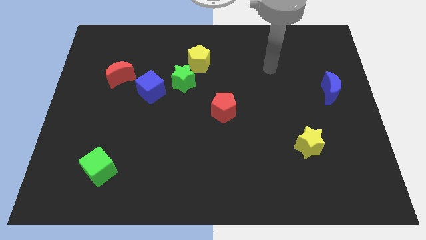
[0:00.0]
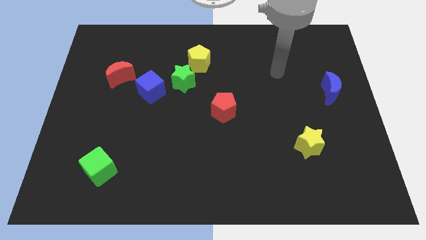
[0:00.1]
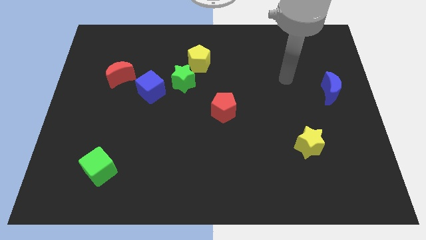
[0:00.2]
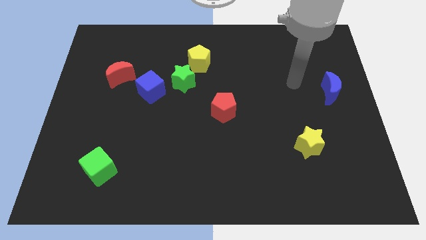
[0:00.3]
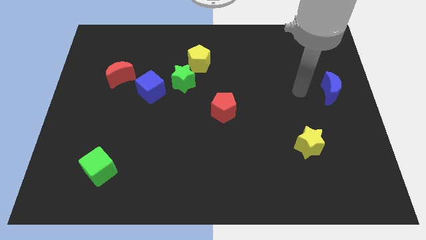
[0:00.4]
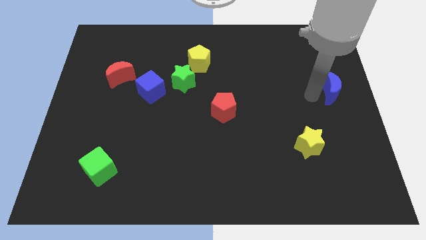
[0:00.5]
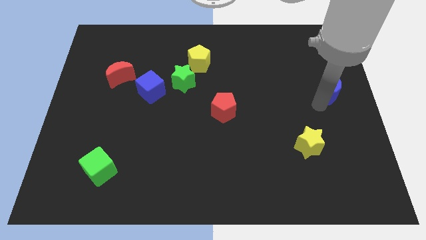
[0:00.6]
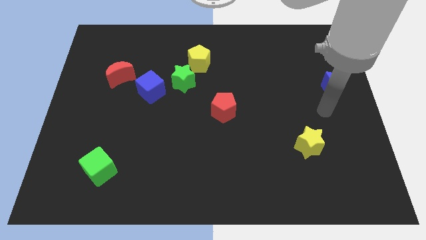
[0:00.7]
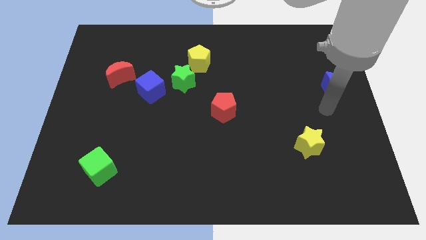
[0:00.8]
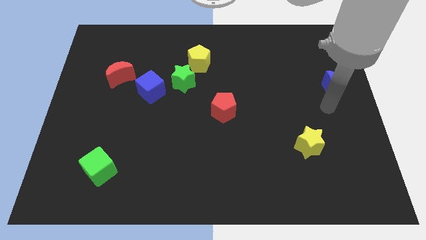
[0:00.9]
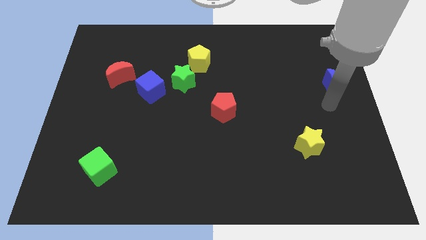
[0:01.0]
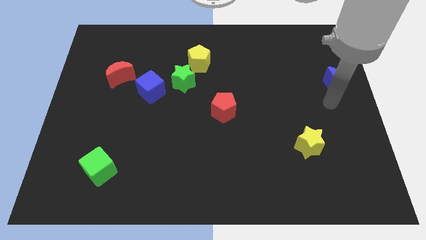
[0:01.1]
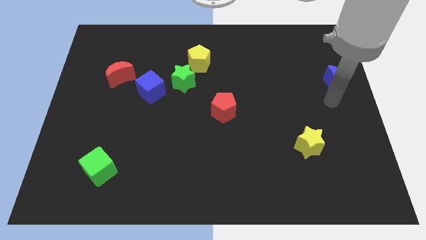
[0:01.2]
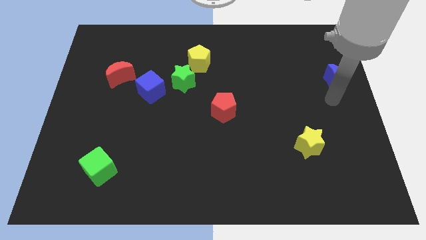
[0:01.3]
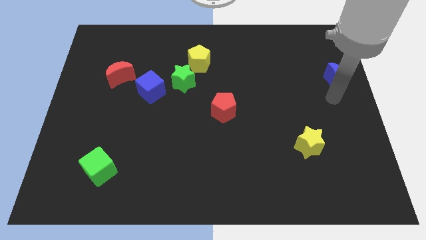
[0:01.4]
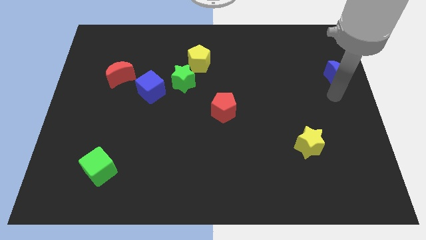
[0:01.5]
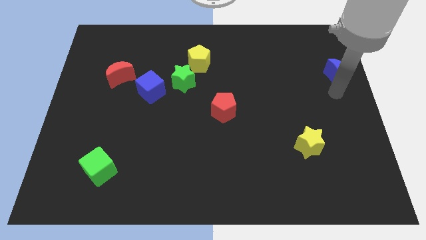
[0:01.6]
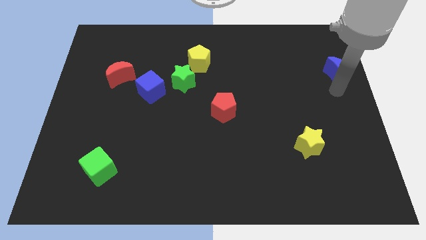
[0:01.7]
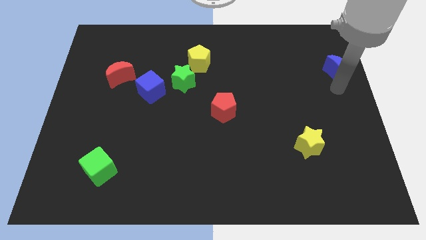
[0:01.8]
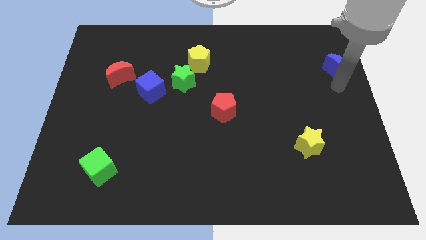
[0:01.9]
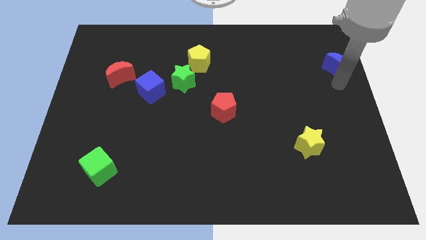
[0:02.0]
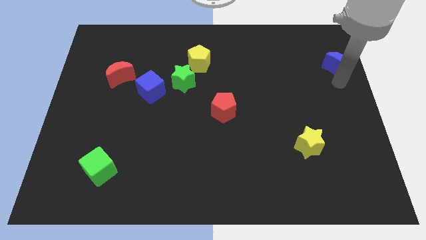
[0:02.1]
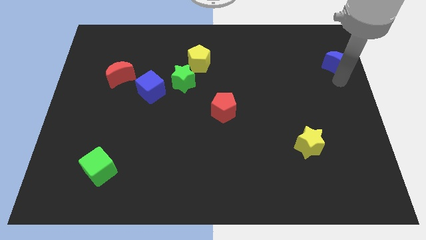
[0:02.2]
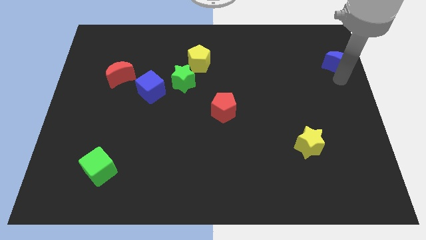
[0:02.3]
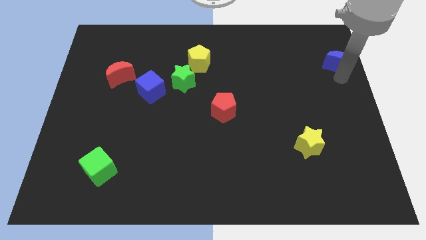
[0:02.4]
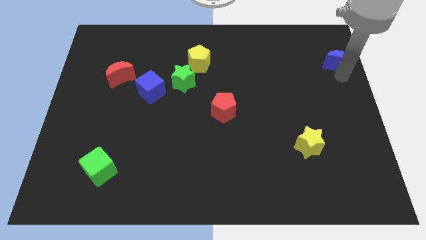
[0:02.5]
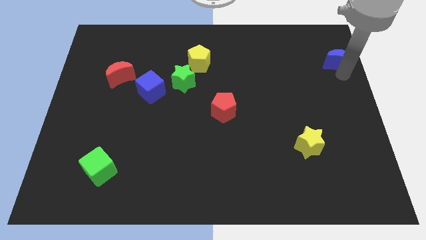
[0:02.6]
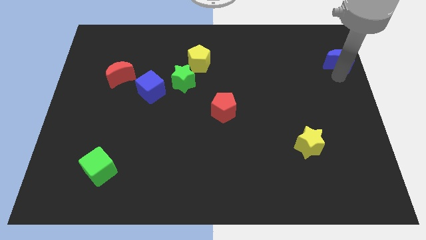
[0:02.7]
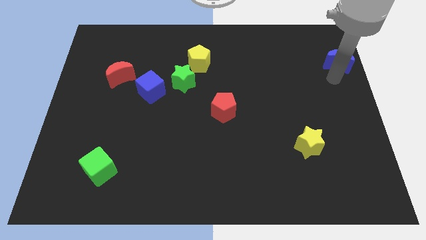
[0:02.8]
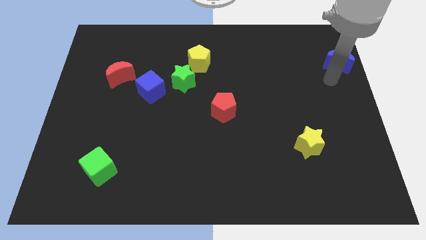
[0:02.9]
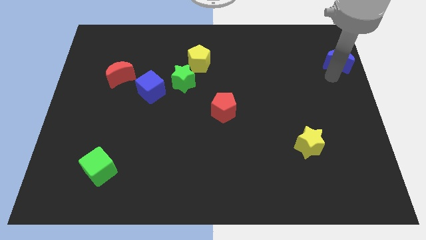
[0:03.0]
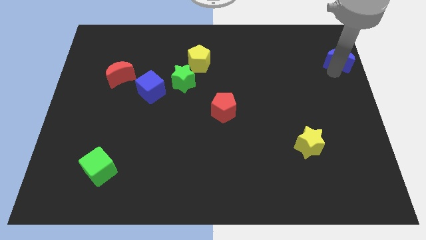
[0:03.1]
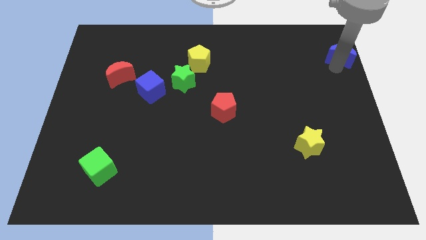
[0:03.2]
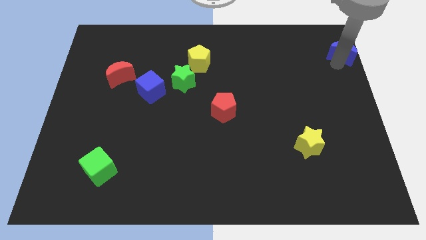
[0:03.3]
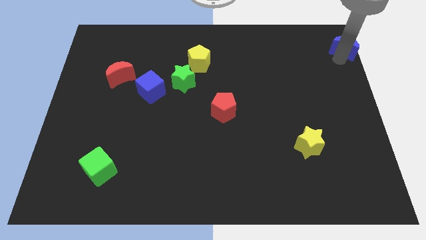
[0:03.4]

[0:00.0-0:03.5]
move the blue moon to the top right

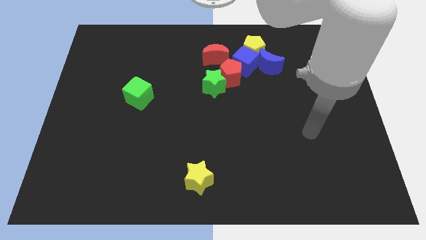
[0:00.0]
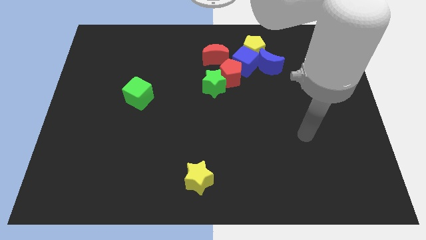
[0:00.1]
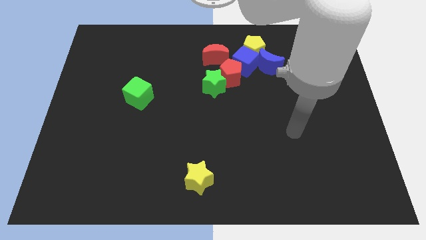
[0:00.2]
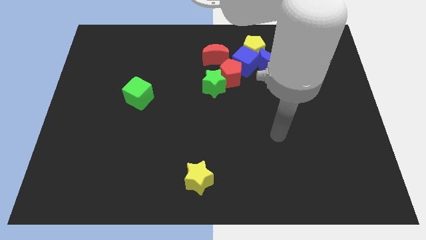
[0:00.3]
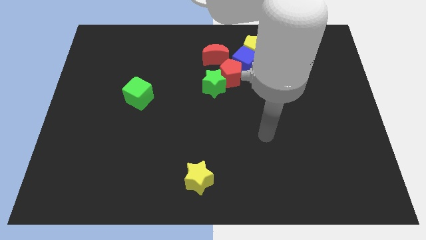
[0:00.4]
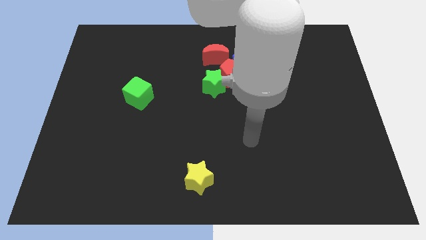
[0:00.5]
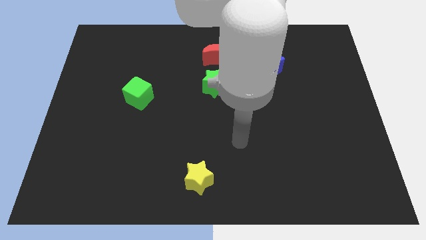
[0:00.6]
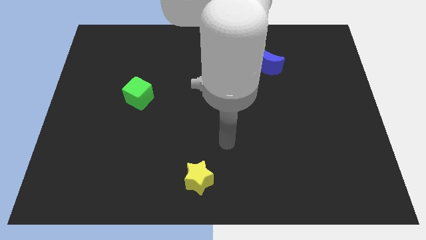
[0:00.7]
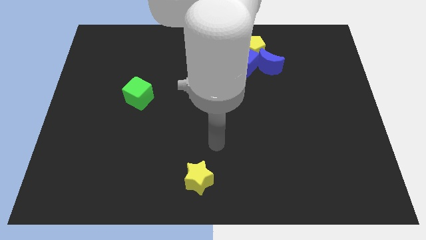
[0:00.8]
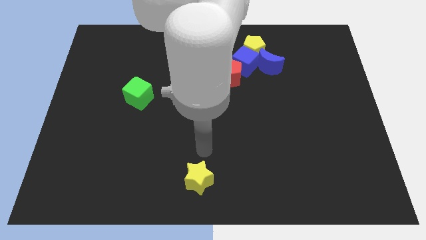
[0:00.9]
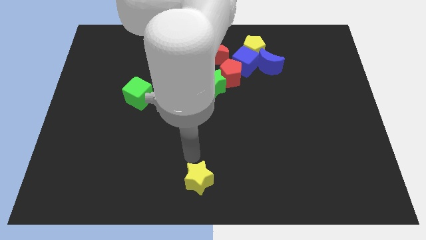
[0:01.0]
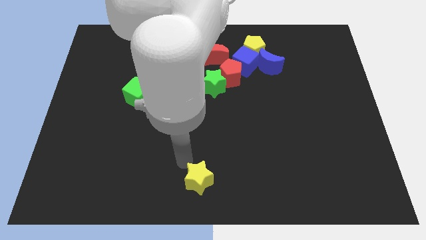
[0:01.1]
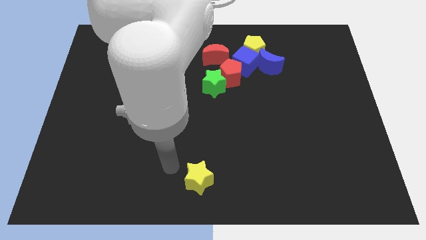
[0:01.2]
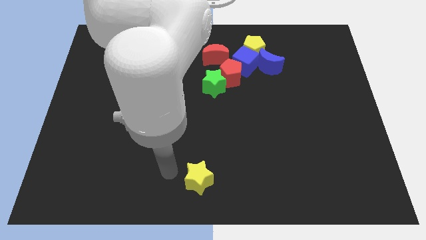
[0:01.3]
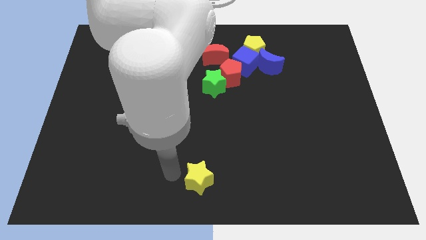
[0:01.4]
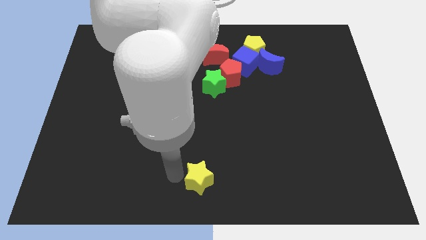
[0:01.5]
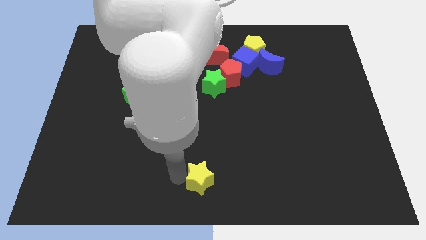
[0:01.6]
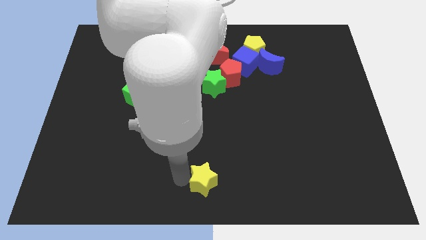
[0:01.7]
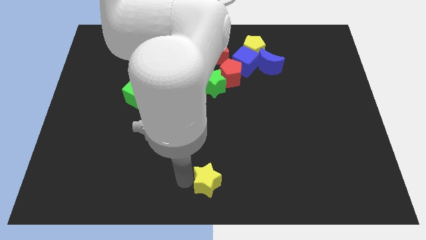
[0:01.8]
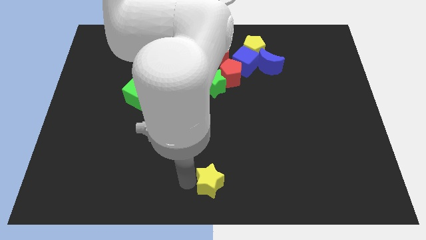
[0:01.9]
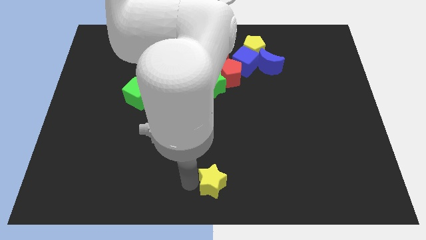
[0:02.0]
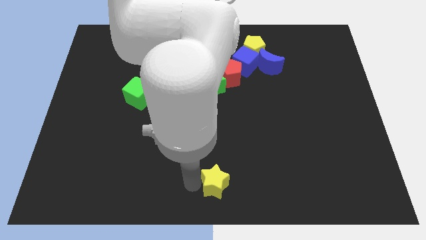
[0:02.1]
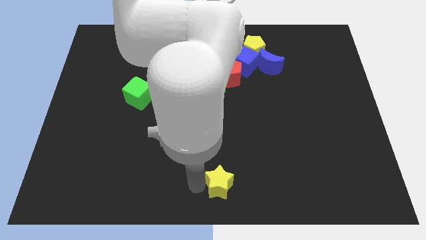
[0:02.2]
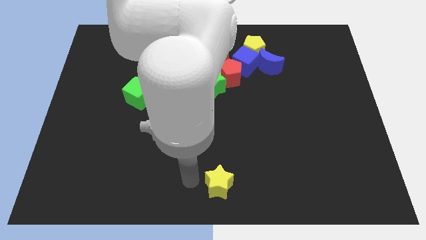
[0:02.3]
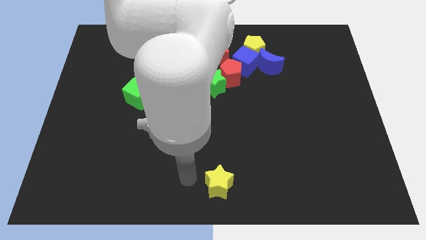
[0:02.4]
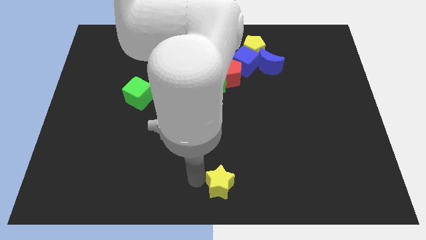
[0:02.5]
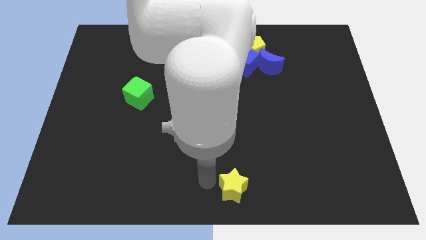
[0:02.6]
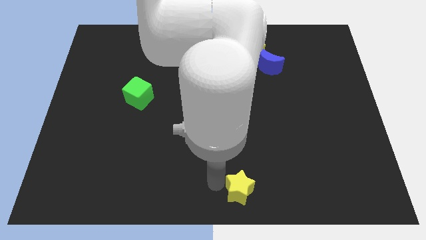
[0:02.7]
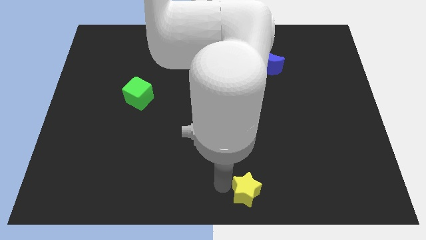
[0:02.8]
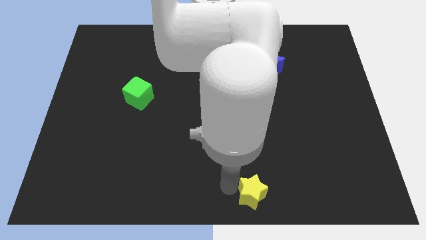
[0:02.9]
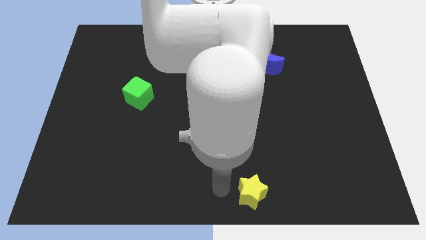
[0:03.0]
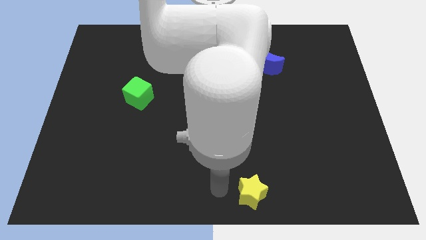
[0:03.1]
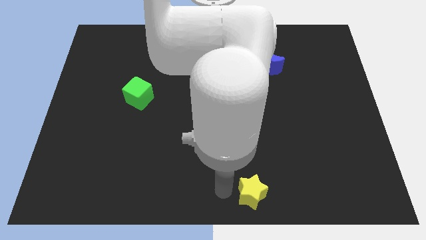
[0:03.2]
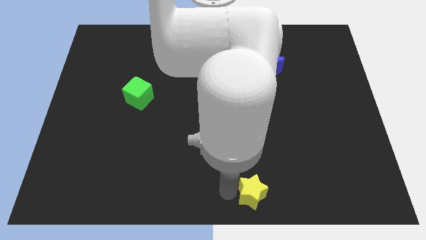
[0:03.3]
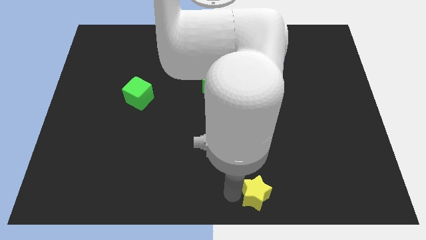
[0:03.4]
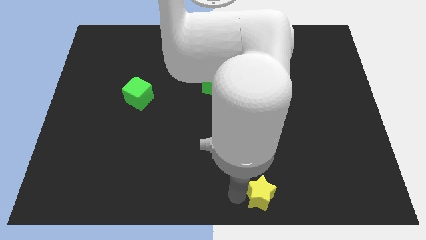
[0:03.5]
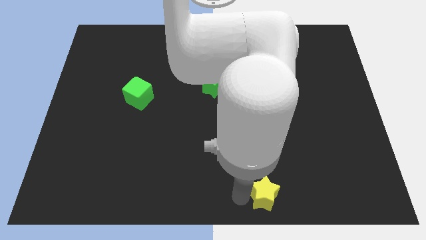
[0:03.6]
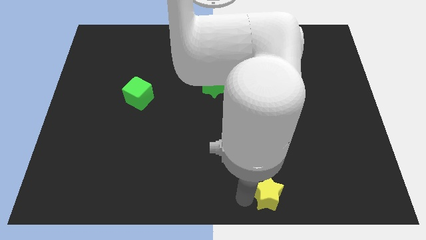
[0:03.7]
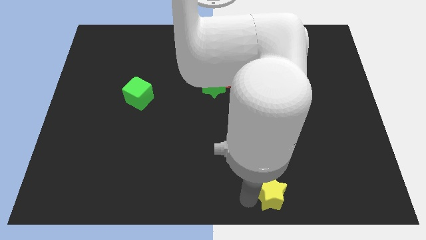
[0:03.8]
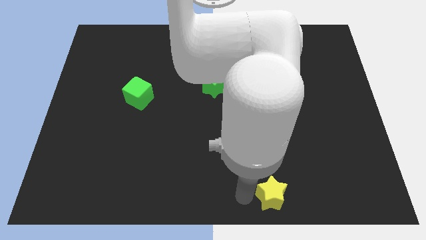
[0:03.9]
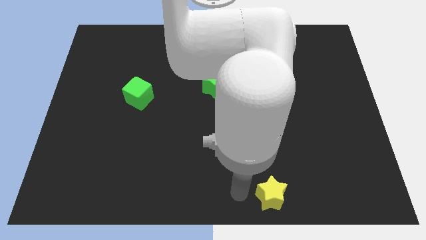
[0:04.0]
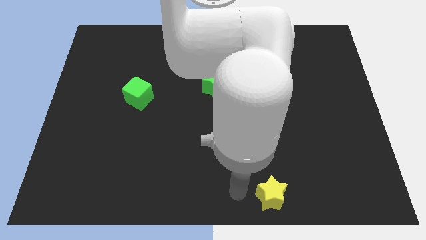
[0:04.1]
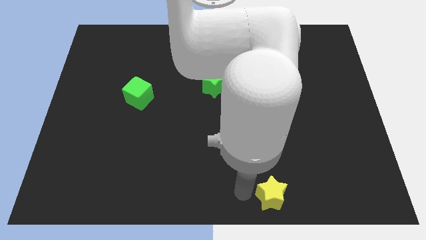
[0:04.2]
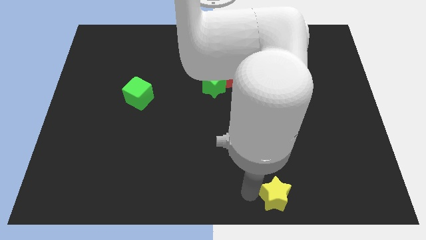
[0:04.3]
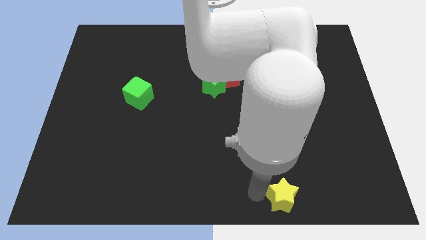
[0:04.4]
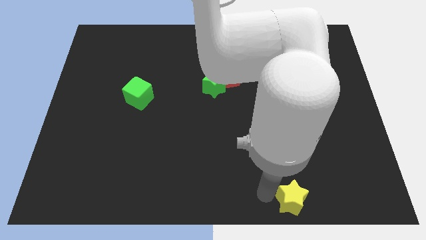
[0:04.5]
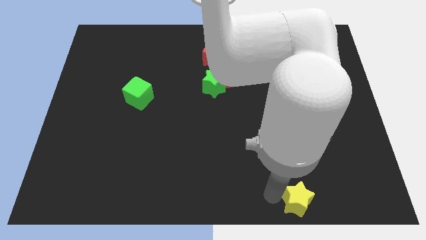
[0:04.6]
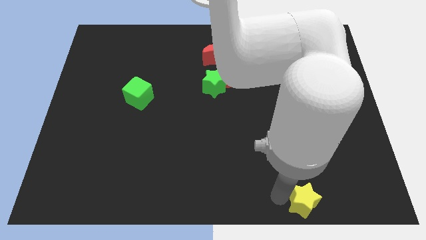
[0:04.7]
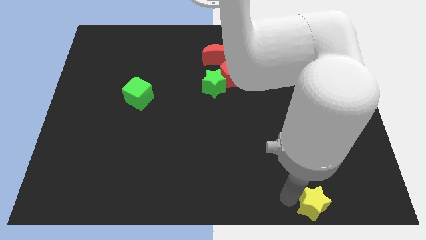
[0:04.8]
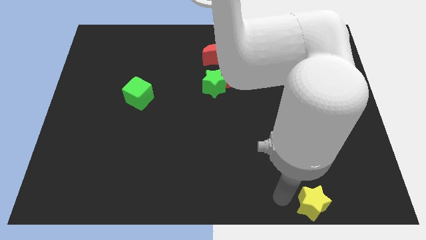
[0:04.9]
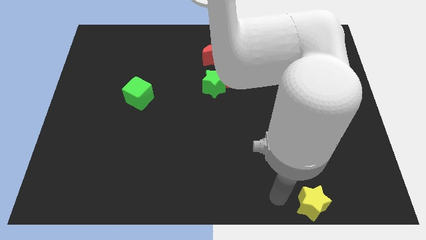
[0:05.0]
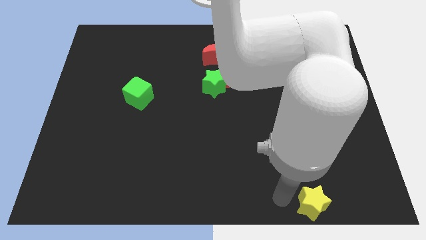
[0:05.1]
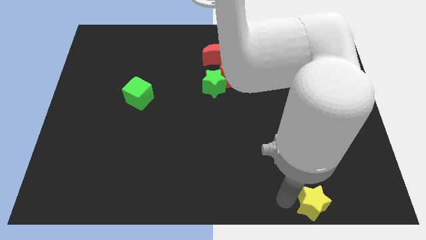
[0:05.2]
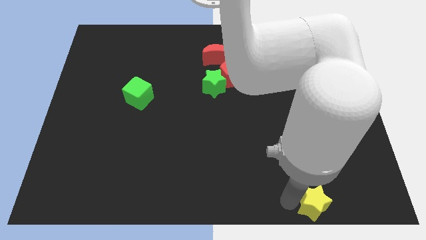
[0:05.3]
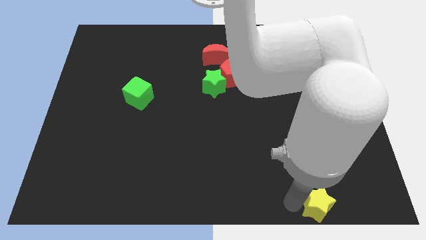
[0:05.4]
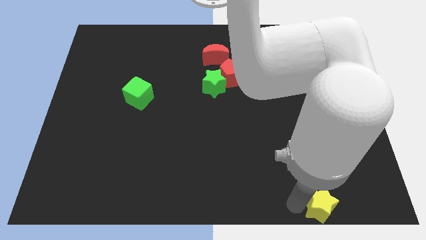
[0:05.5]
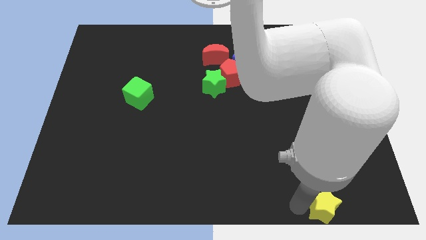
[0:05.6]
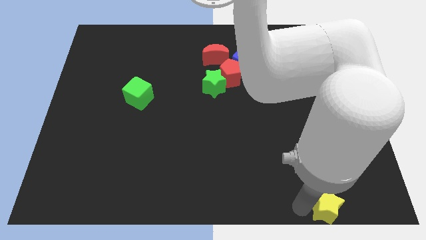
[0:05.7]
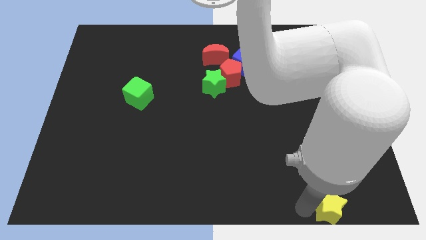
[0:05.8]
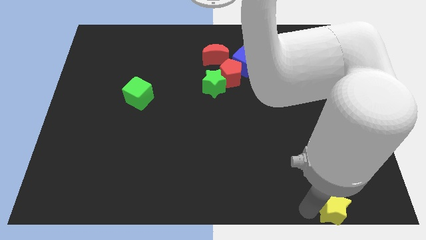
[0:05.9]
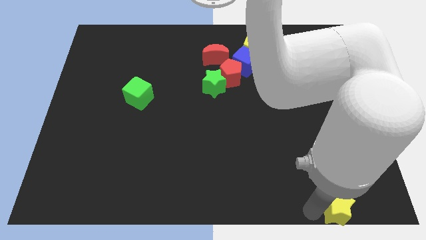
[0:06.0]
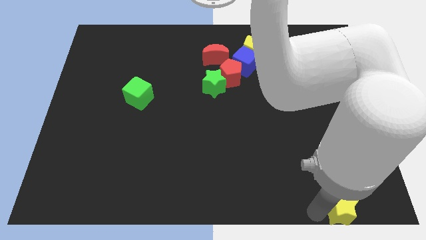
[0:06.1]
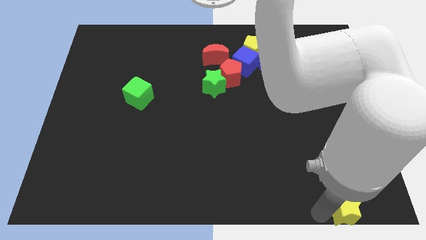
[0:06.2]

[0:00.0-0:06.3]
push the yellow star to the lower right corner
